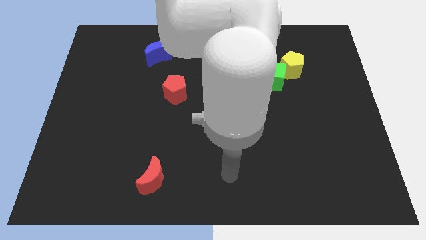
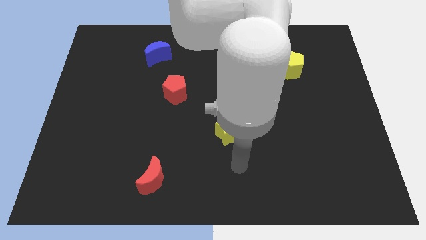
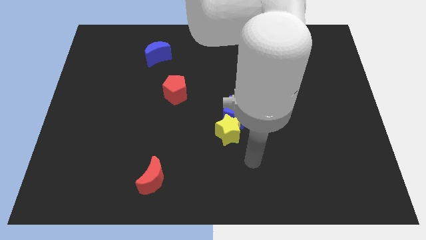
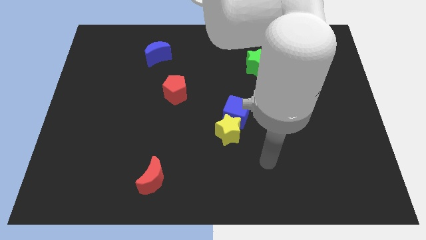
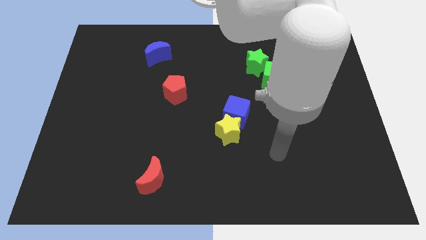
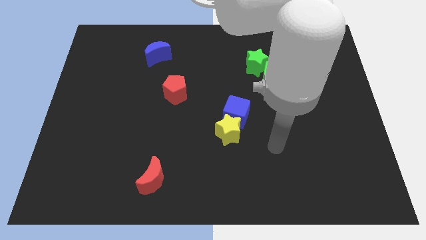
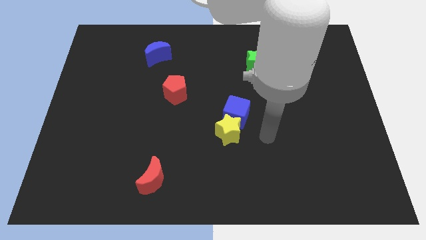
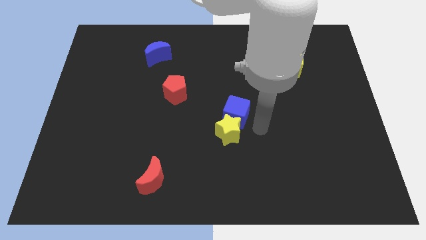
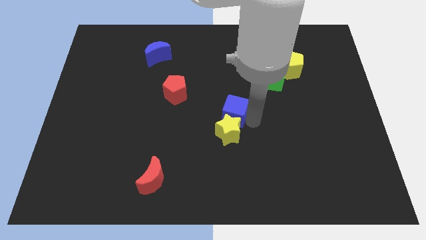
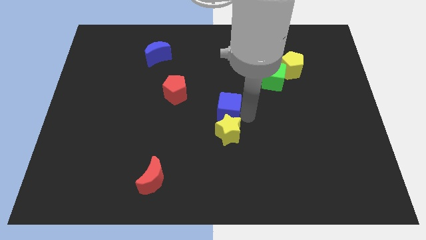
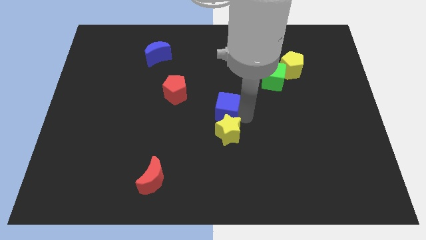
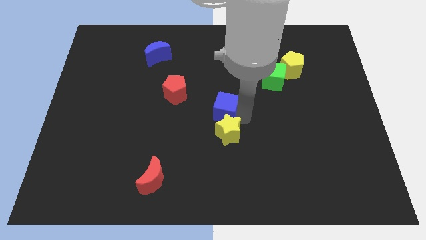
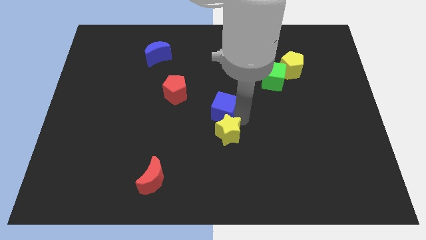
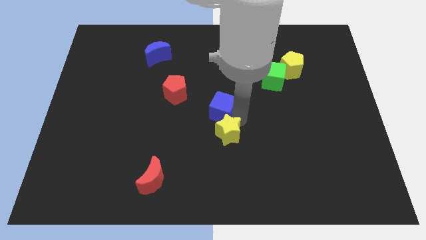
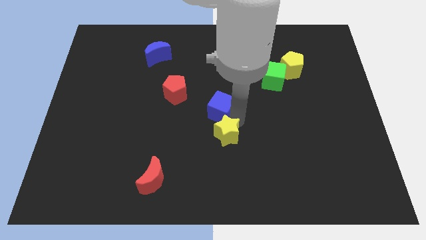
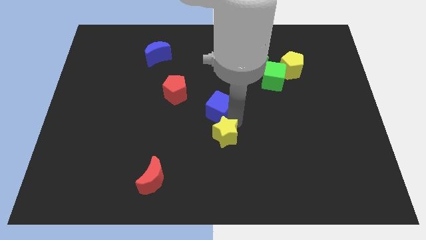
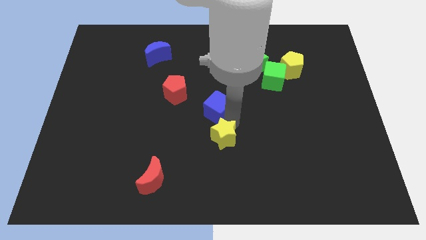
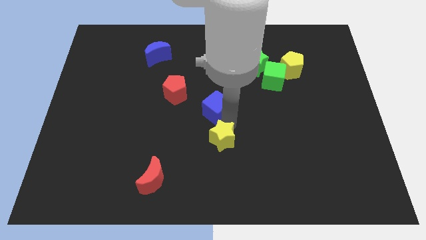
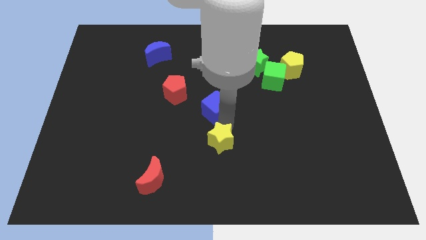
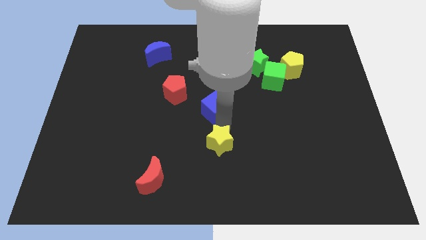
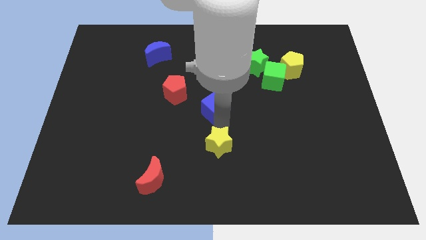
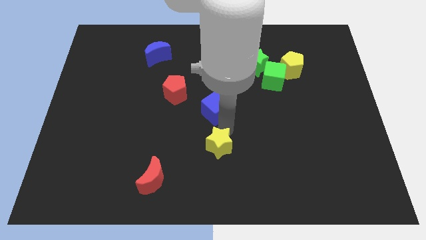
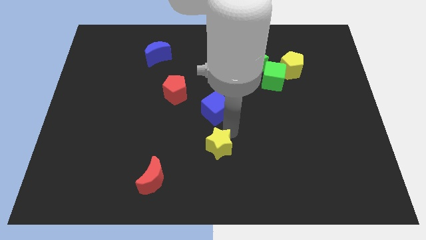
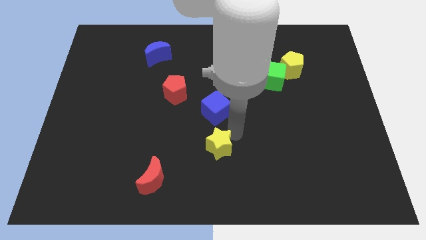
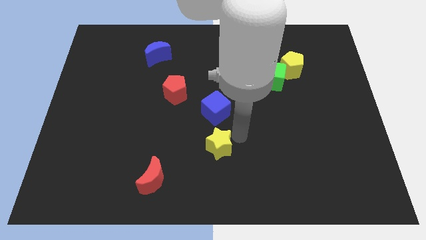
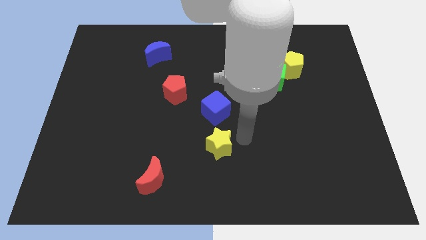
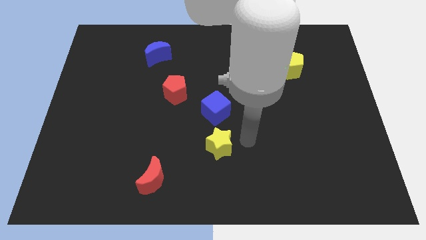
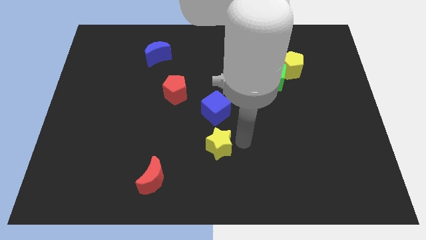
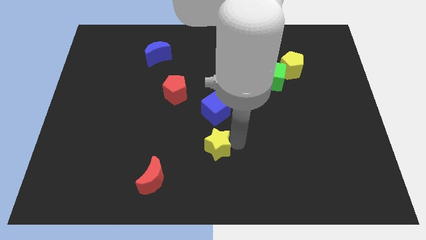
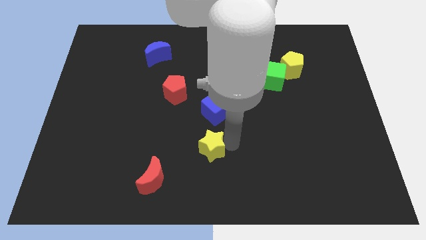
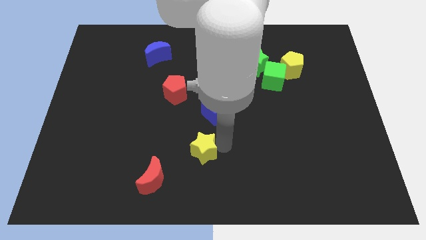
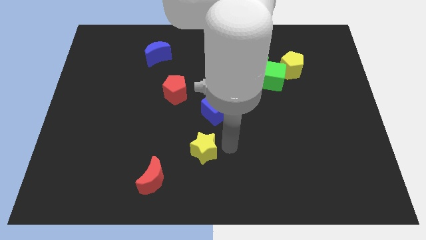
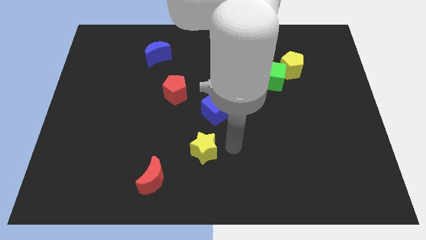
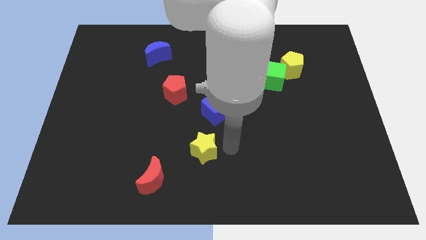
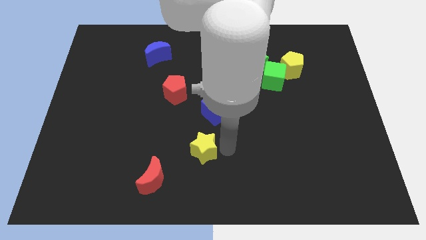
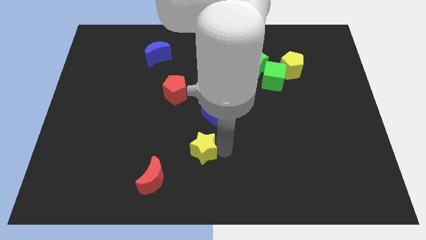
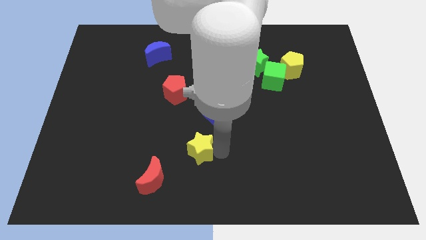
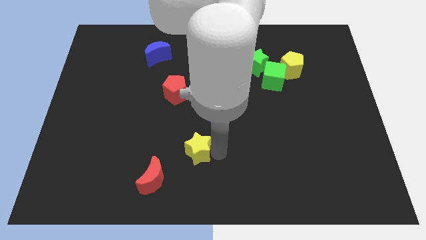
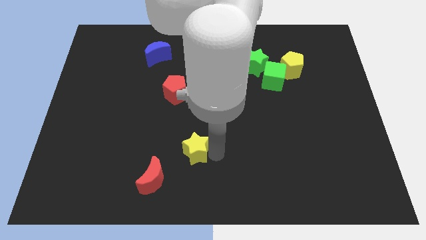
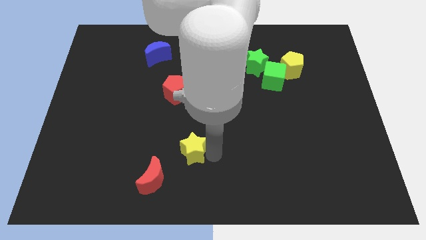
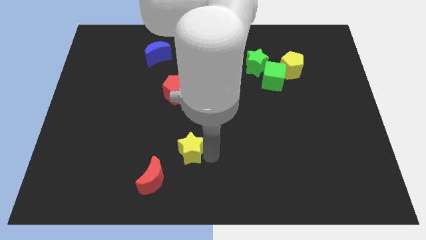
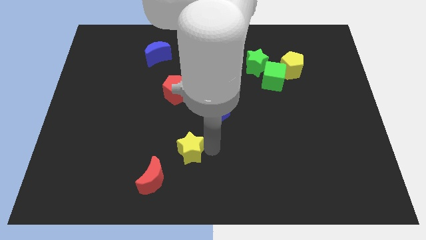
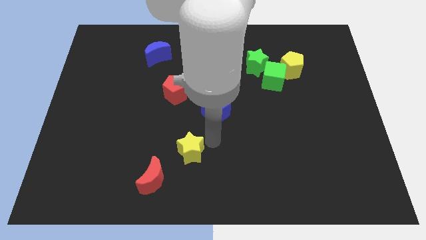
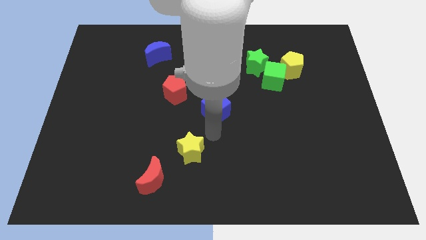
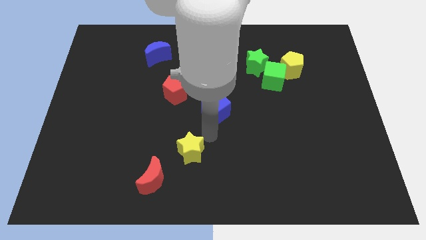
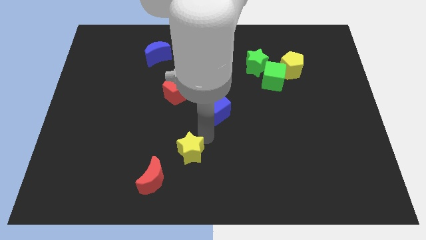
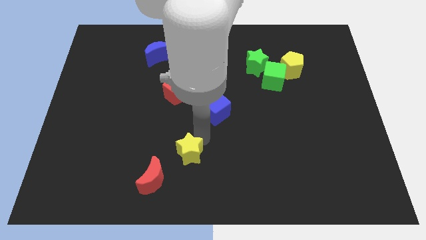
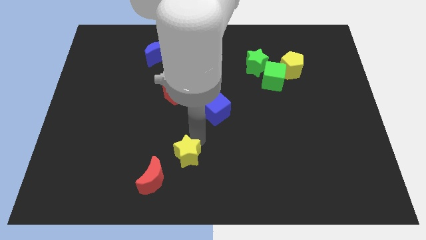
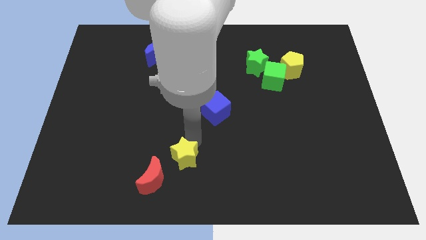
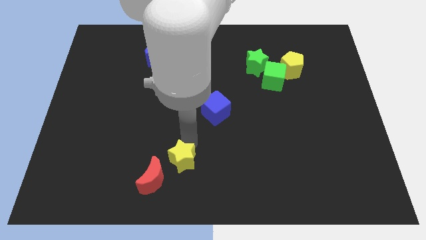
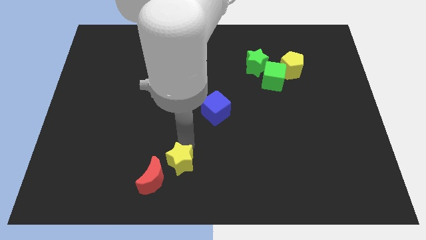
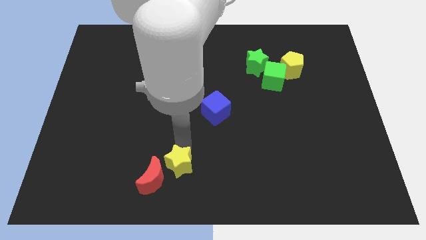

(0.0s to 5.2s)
move the yellow star next to the red moon

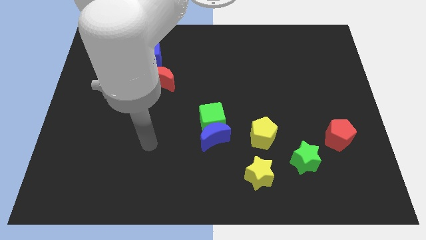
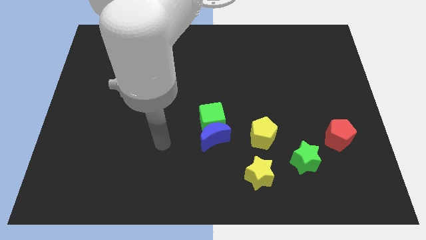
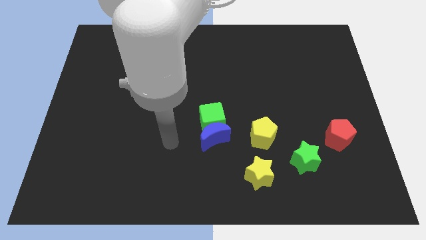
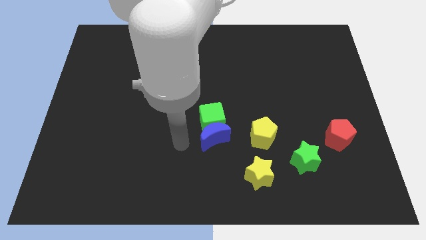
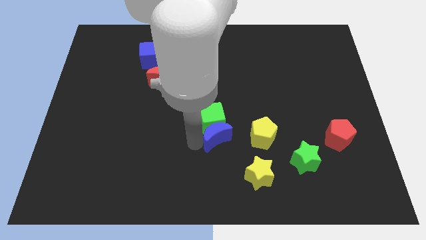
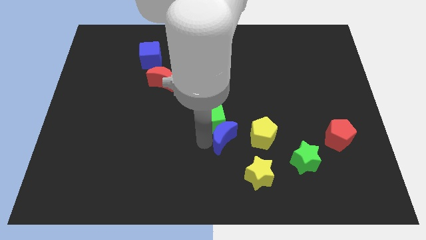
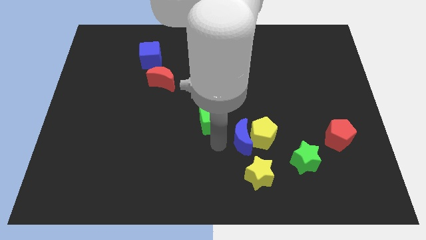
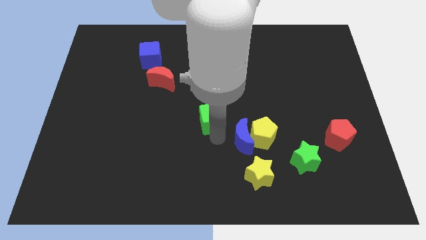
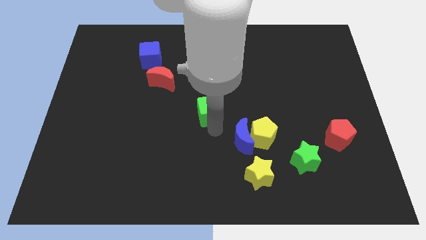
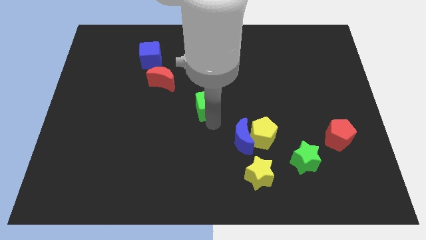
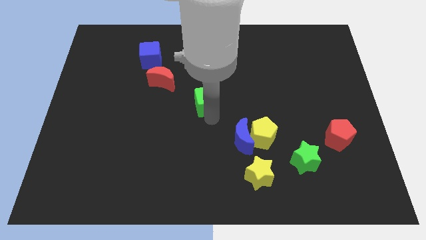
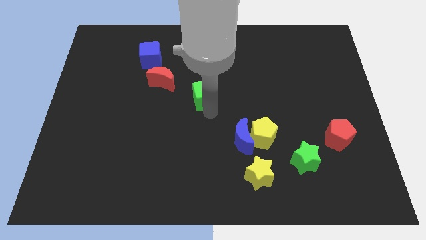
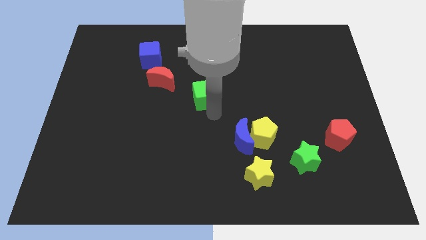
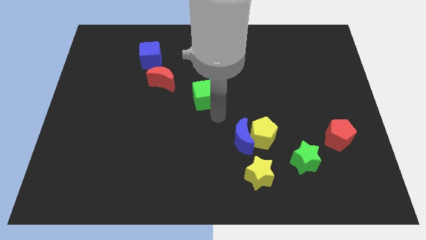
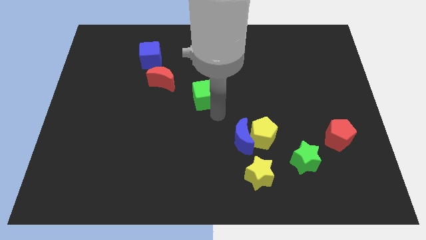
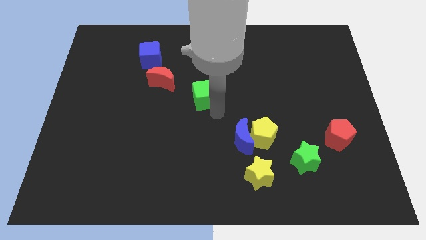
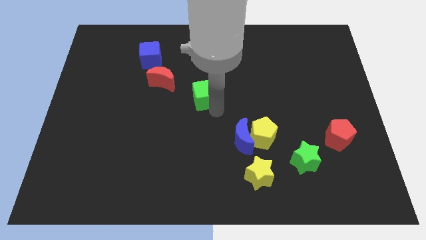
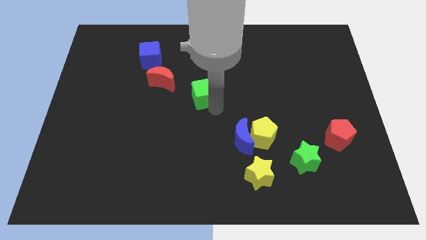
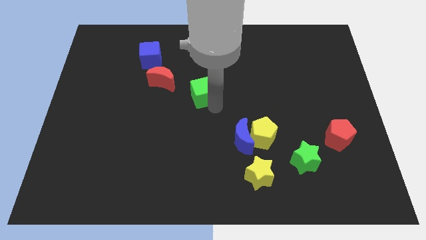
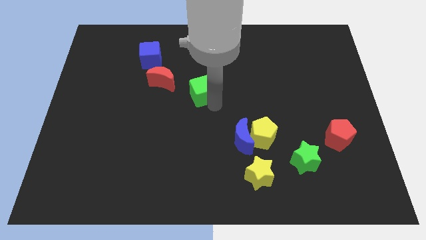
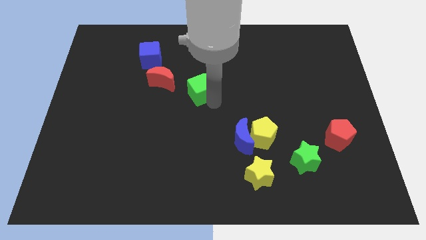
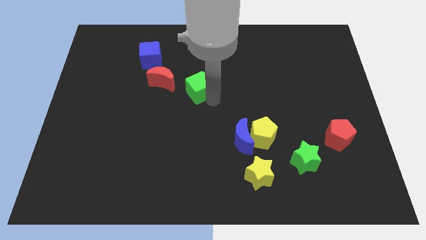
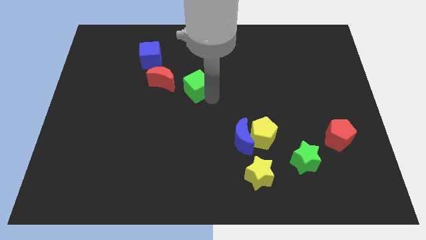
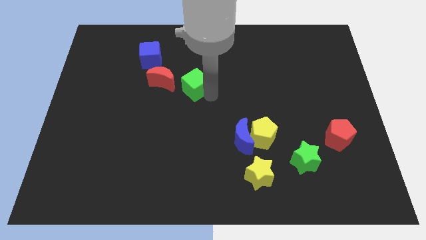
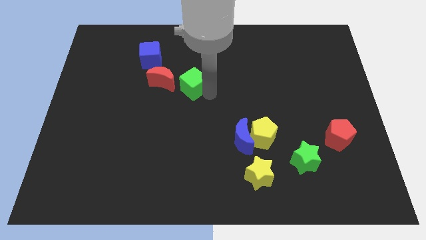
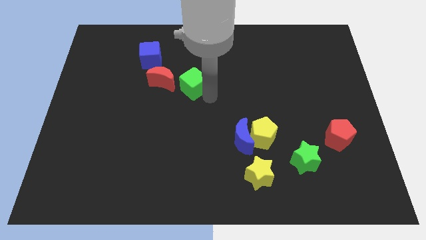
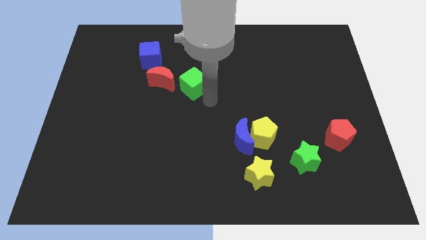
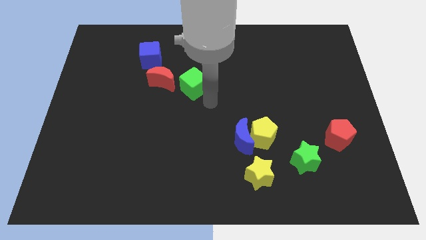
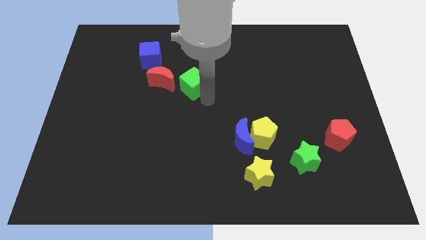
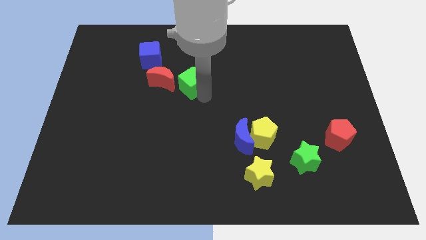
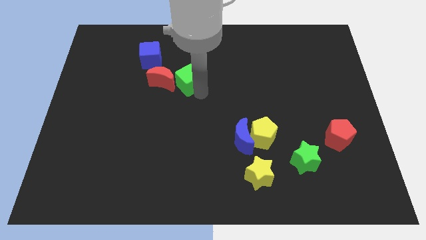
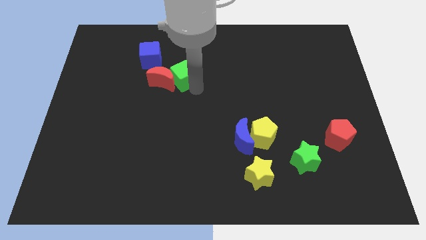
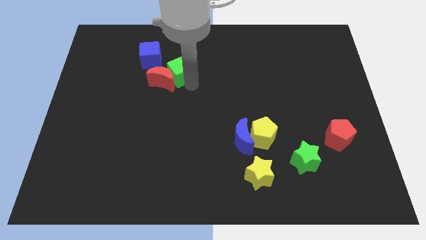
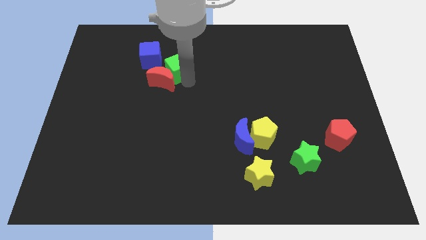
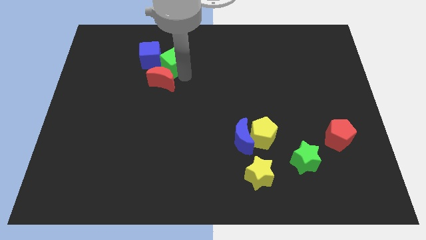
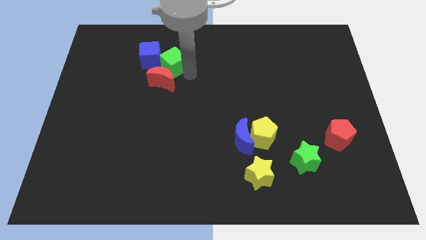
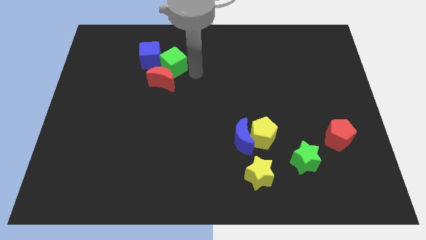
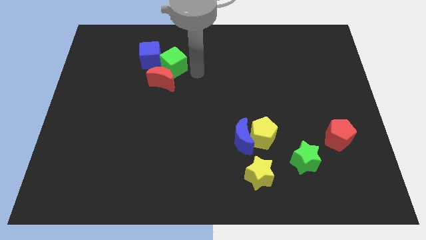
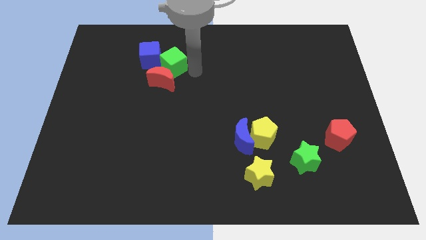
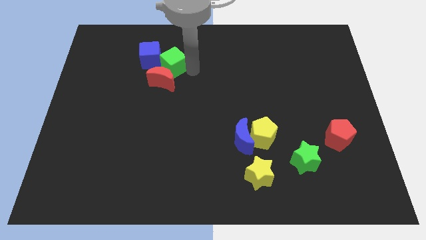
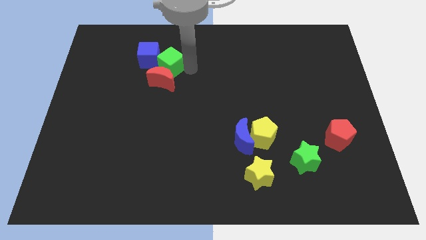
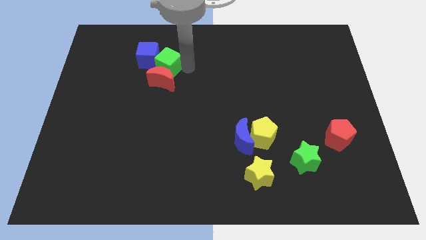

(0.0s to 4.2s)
move the green cube to the blue cube
